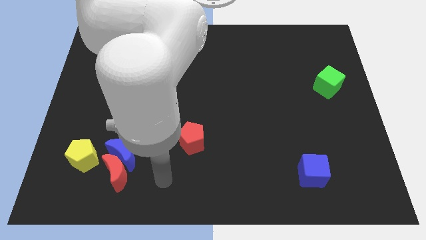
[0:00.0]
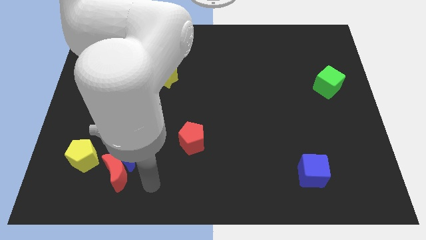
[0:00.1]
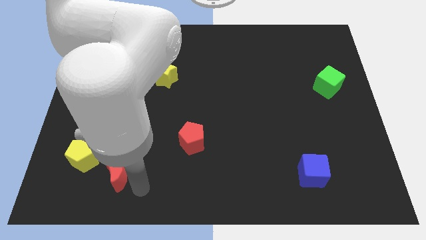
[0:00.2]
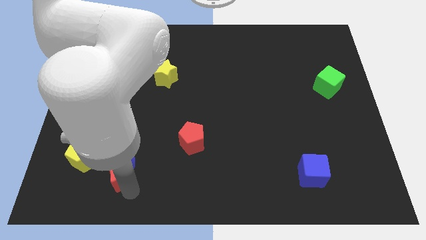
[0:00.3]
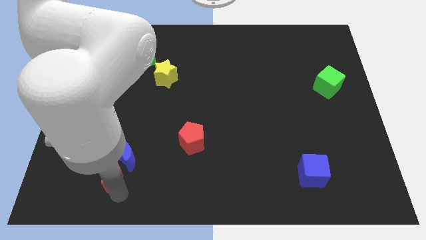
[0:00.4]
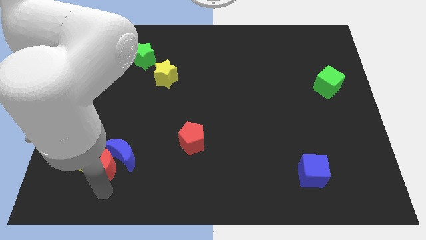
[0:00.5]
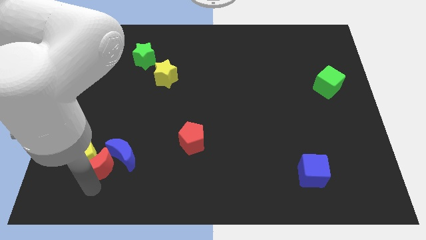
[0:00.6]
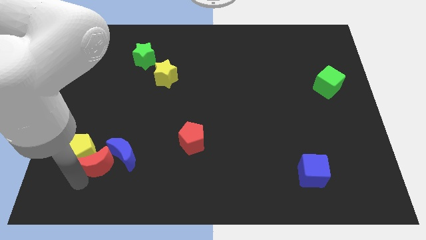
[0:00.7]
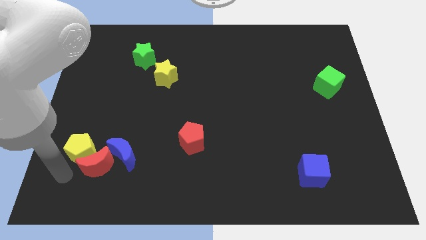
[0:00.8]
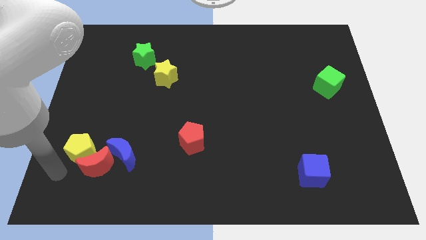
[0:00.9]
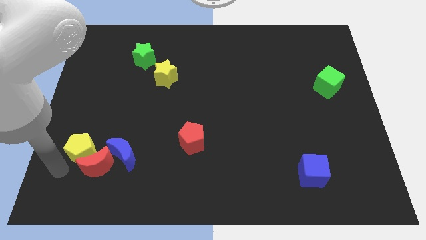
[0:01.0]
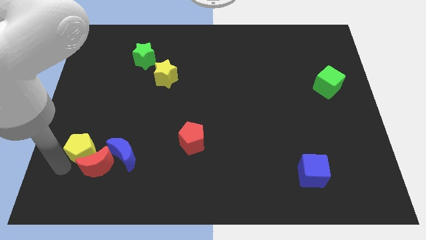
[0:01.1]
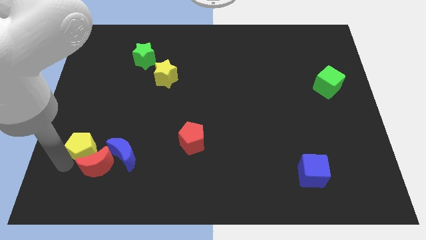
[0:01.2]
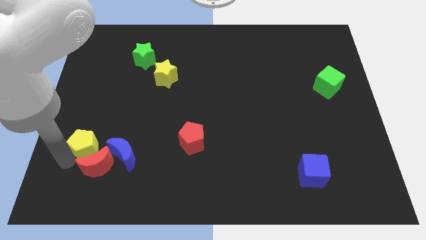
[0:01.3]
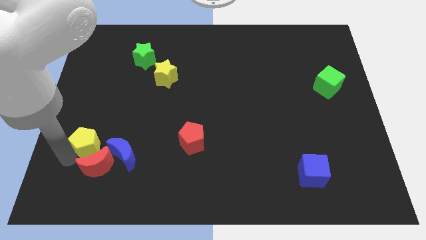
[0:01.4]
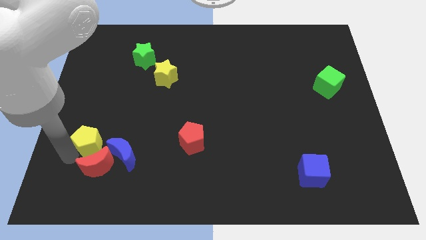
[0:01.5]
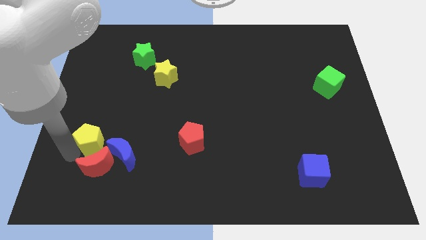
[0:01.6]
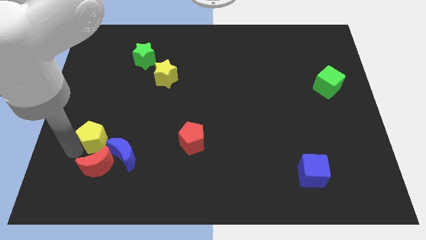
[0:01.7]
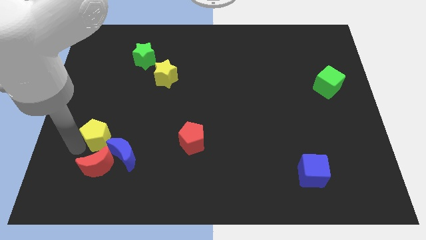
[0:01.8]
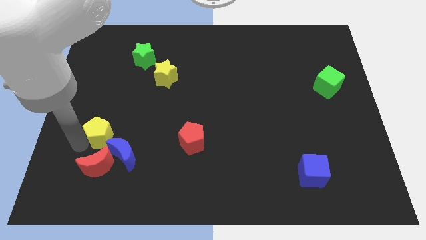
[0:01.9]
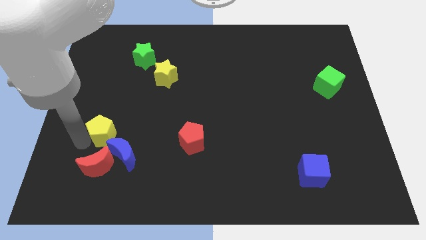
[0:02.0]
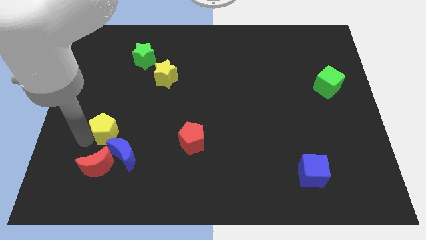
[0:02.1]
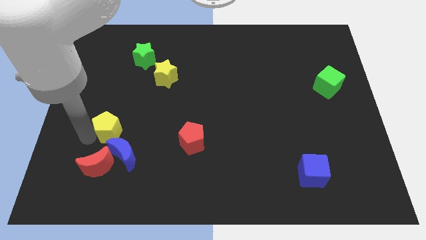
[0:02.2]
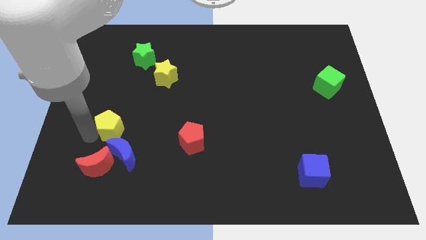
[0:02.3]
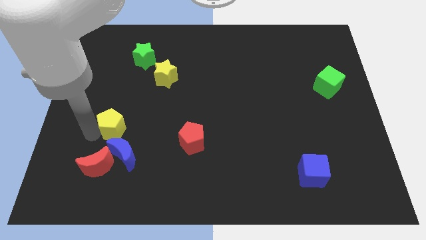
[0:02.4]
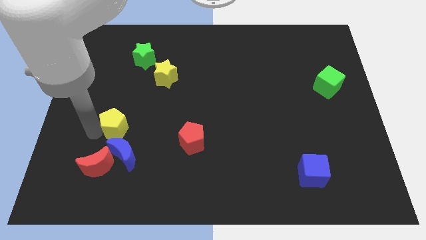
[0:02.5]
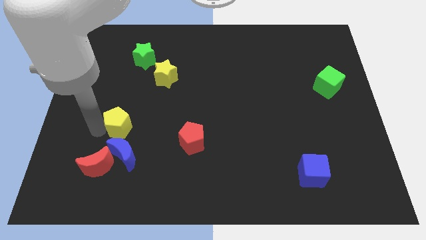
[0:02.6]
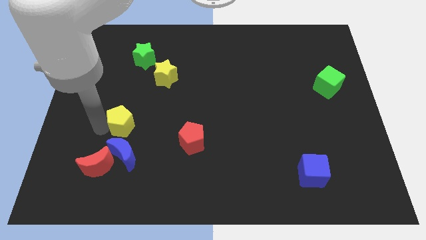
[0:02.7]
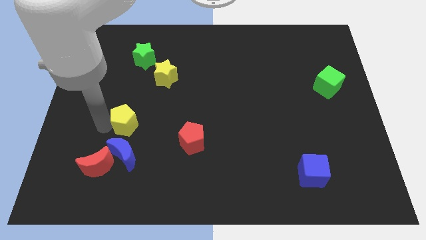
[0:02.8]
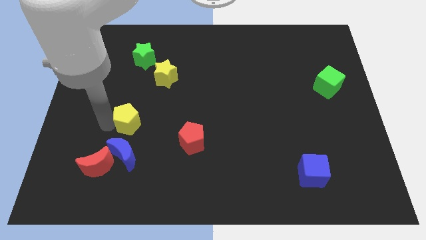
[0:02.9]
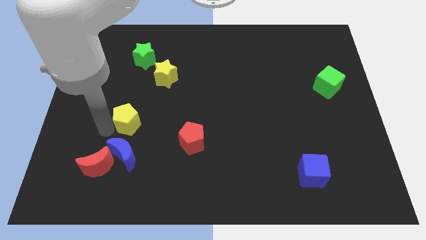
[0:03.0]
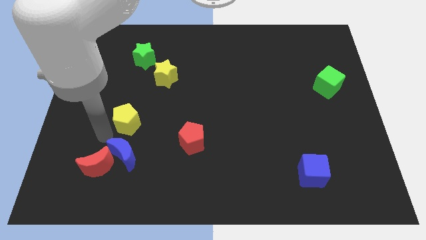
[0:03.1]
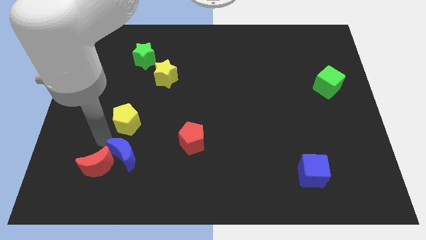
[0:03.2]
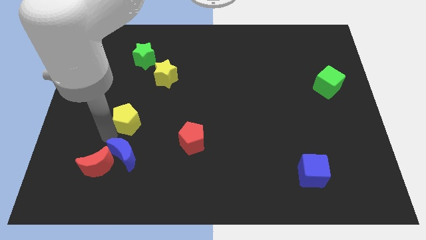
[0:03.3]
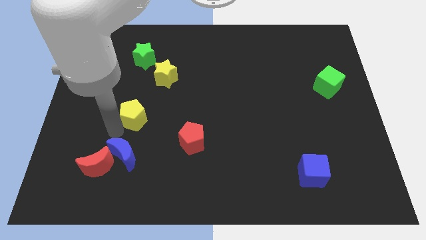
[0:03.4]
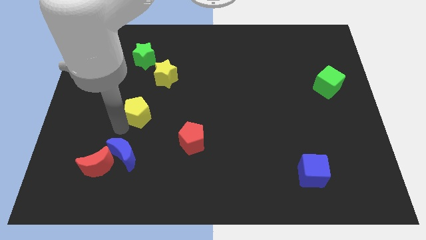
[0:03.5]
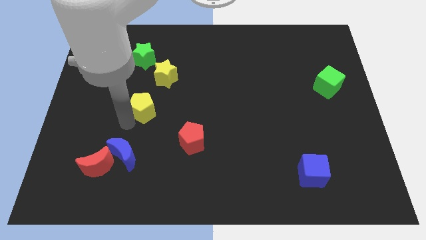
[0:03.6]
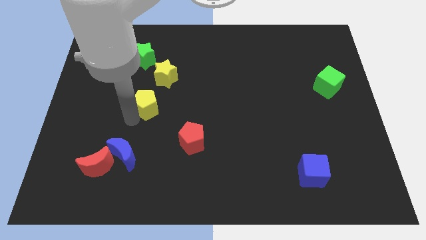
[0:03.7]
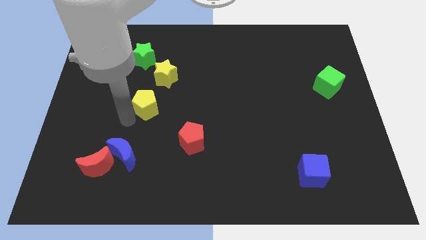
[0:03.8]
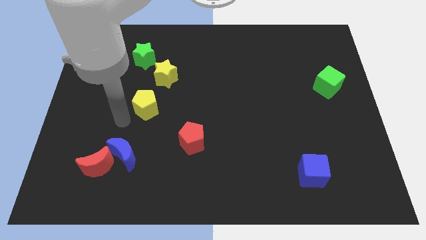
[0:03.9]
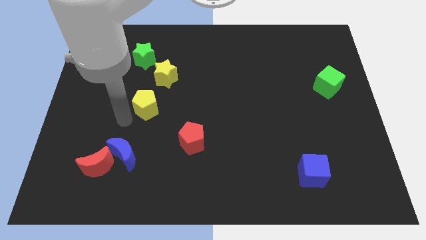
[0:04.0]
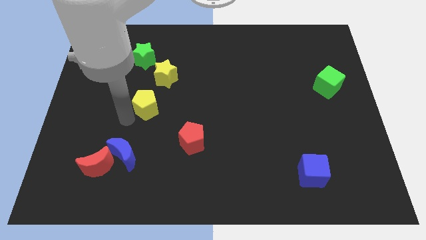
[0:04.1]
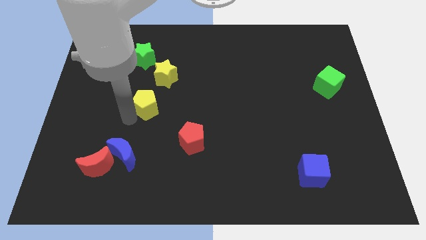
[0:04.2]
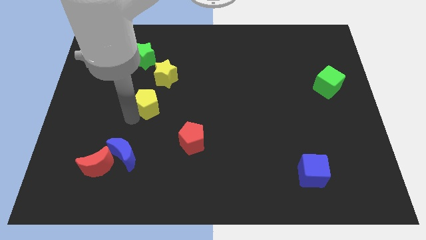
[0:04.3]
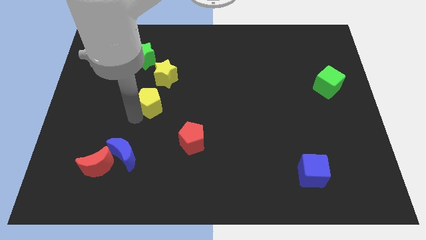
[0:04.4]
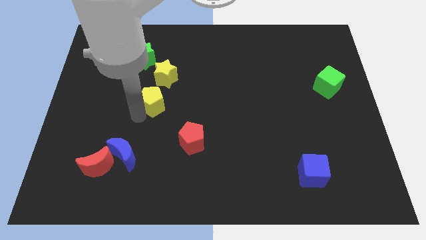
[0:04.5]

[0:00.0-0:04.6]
slide the yellow pentagon upwards and then right

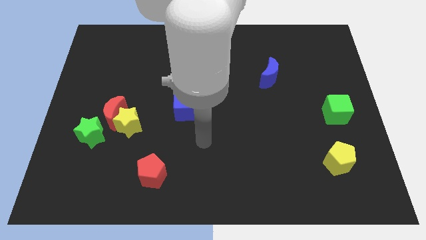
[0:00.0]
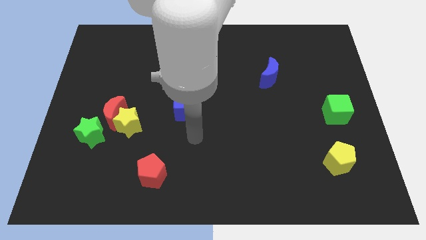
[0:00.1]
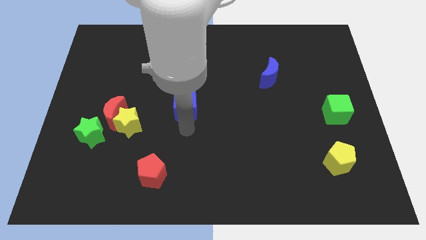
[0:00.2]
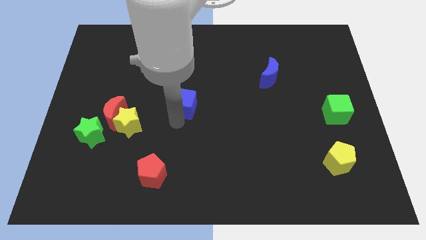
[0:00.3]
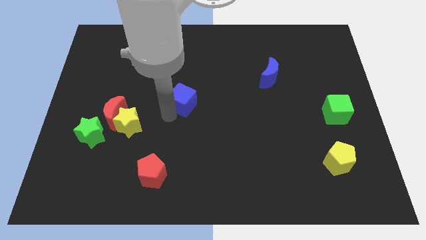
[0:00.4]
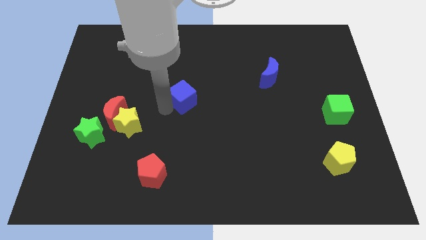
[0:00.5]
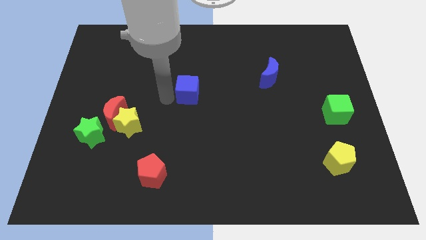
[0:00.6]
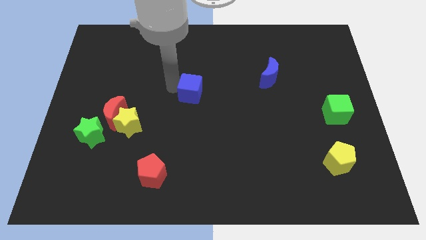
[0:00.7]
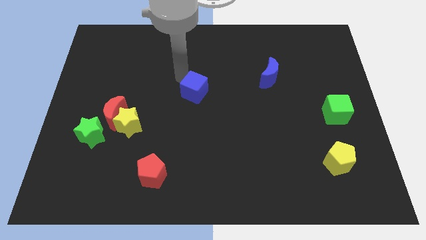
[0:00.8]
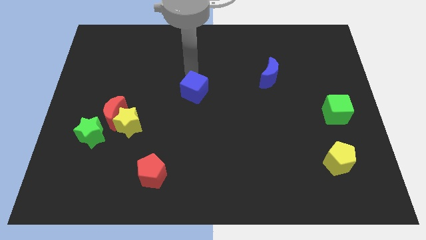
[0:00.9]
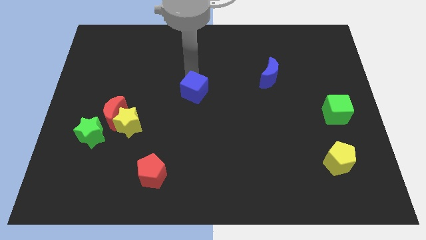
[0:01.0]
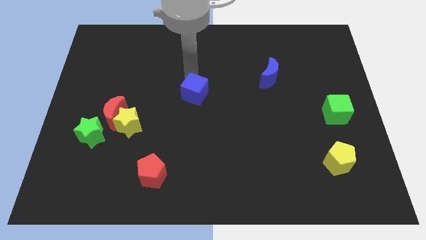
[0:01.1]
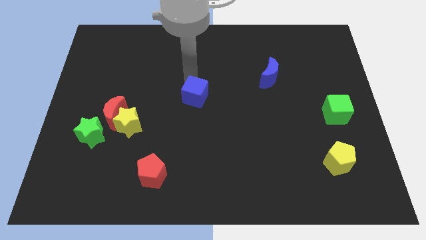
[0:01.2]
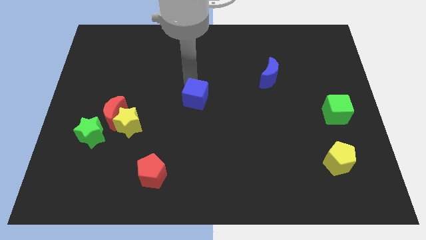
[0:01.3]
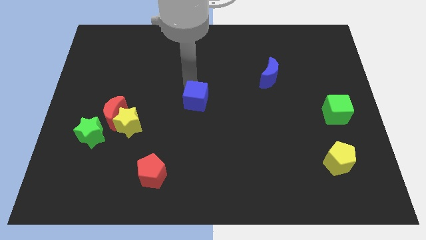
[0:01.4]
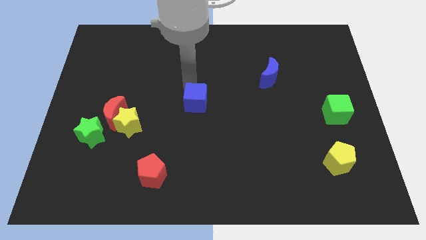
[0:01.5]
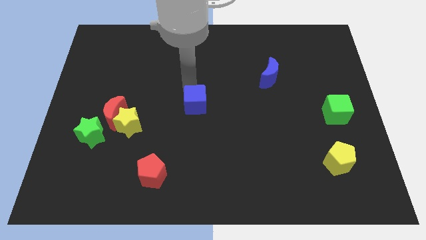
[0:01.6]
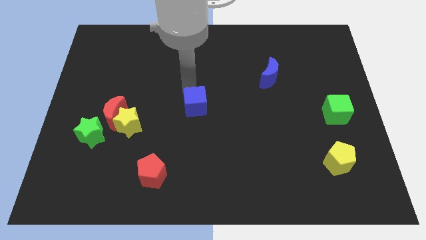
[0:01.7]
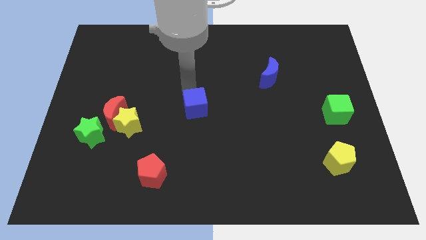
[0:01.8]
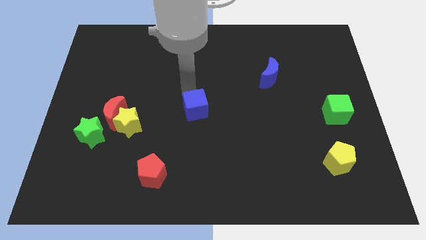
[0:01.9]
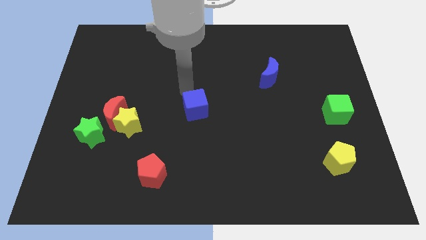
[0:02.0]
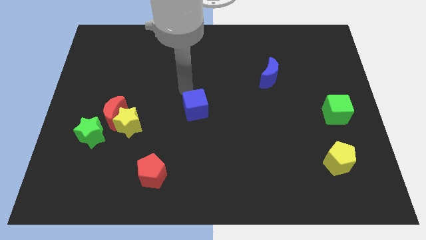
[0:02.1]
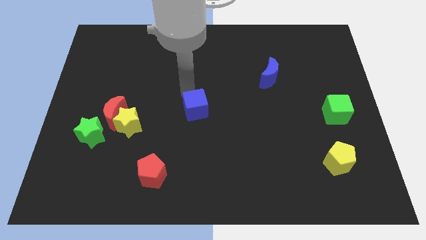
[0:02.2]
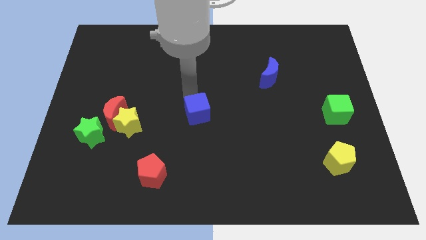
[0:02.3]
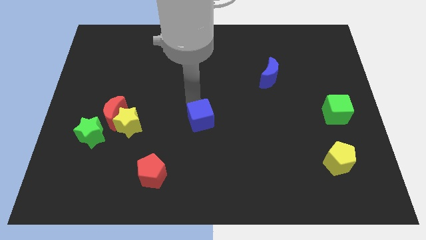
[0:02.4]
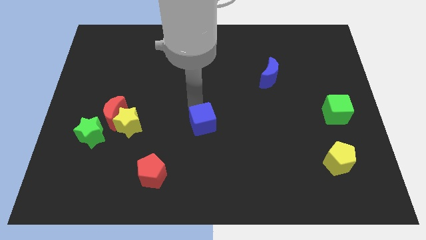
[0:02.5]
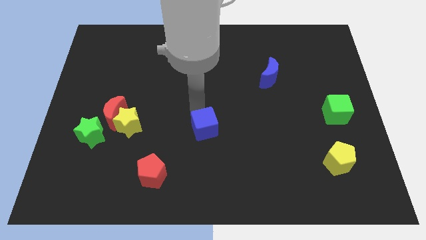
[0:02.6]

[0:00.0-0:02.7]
slightly slide the blue cube diagonally downwards and right

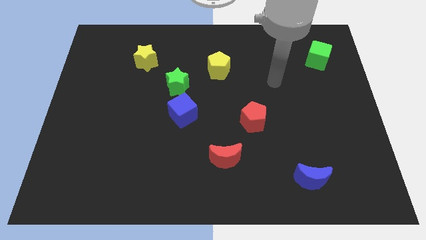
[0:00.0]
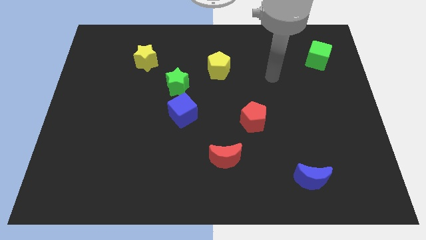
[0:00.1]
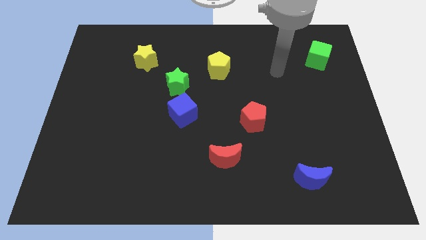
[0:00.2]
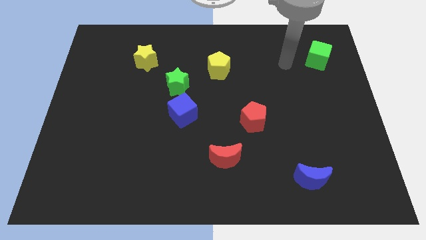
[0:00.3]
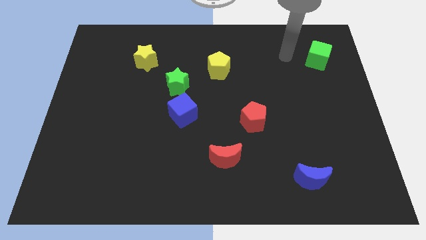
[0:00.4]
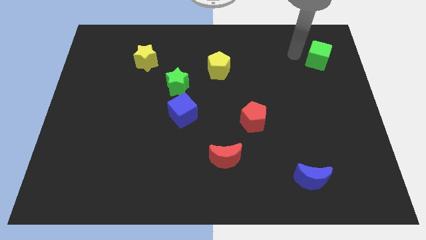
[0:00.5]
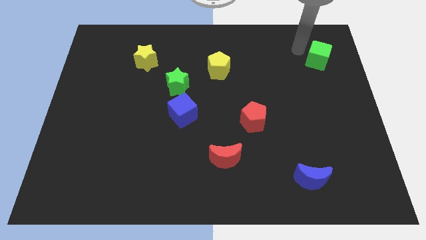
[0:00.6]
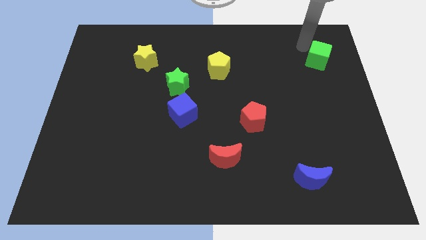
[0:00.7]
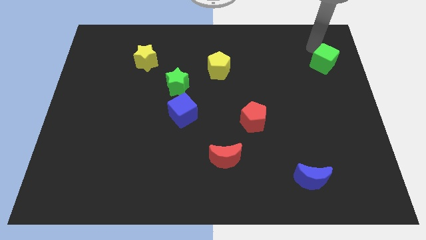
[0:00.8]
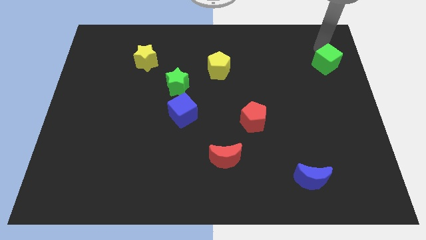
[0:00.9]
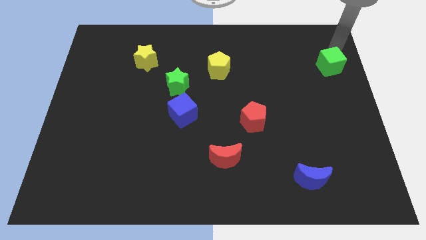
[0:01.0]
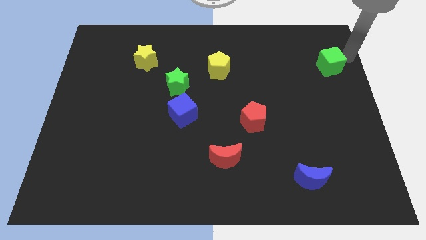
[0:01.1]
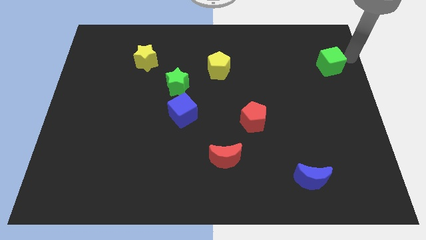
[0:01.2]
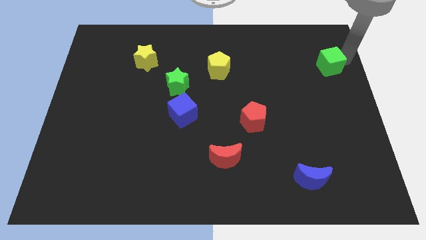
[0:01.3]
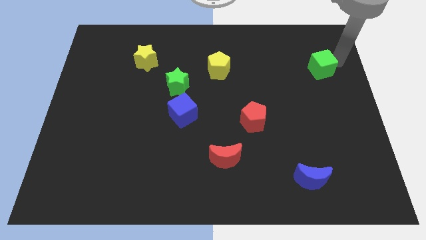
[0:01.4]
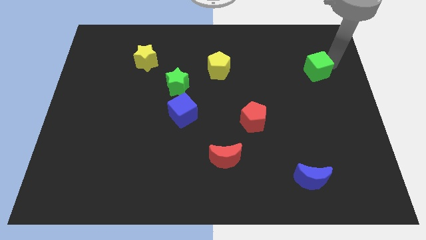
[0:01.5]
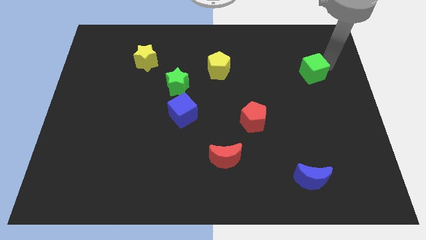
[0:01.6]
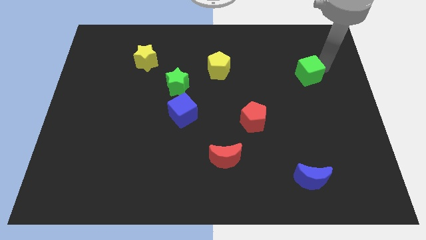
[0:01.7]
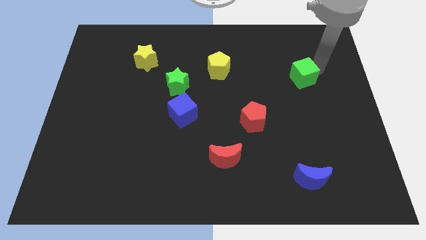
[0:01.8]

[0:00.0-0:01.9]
push the green cube downwards and then left somewhat
